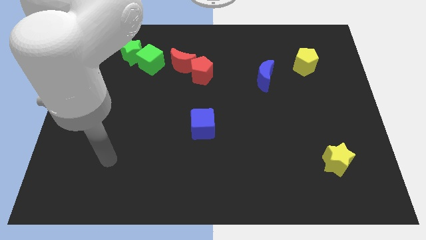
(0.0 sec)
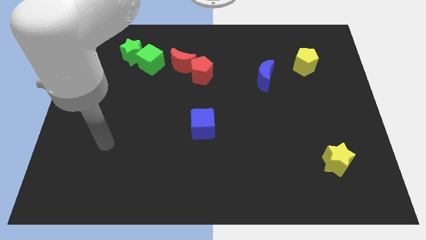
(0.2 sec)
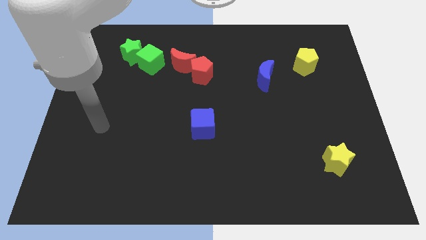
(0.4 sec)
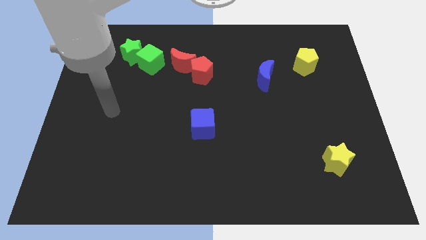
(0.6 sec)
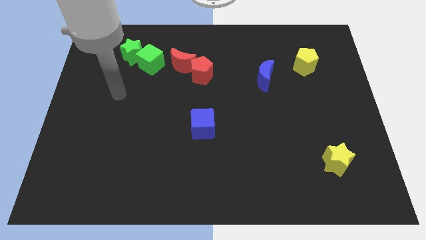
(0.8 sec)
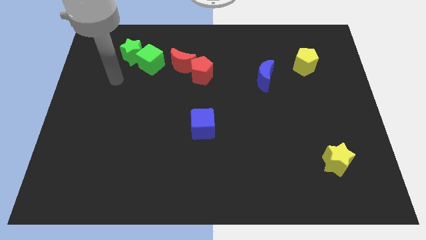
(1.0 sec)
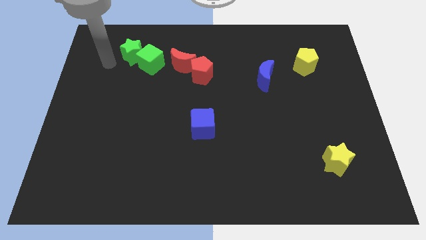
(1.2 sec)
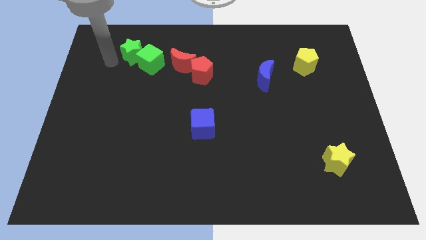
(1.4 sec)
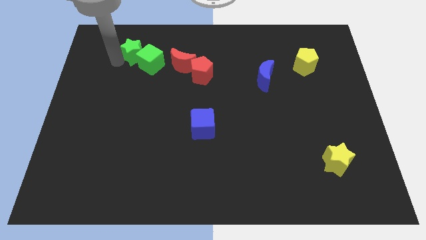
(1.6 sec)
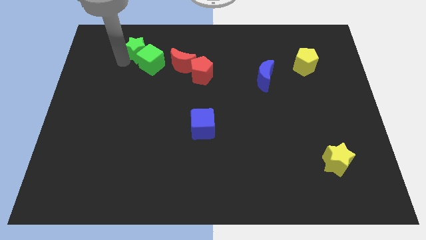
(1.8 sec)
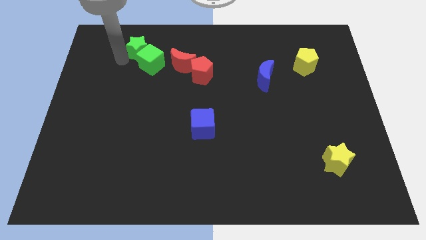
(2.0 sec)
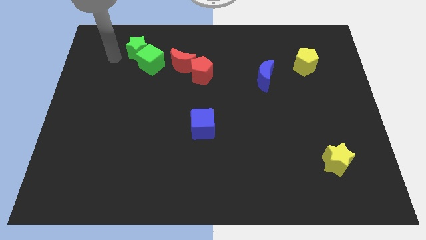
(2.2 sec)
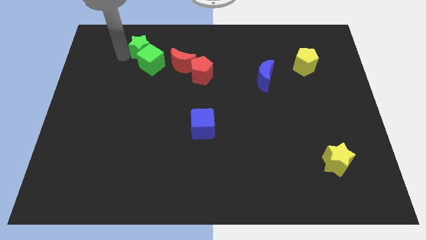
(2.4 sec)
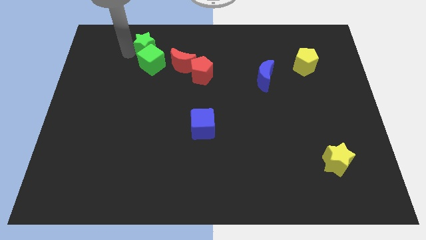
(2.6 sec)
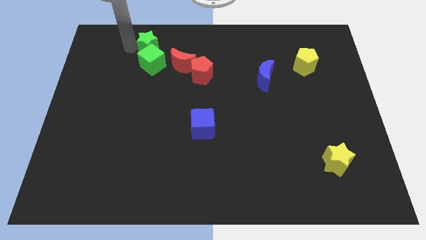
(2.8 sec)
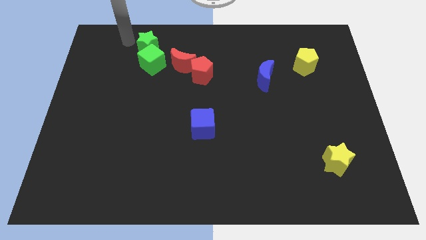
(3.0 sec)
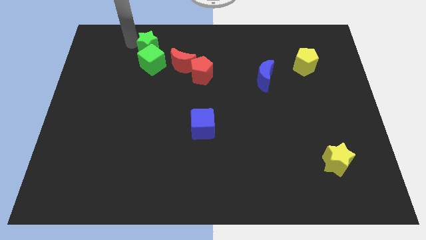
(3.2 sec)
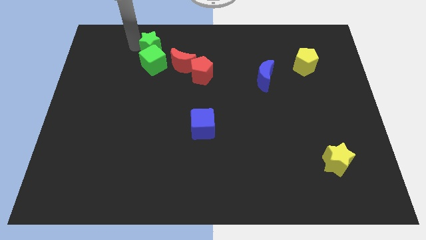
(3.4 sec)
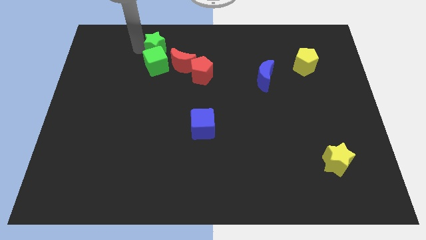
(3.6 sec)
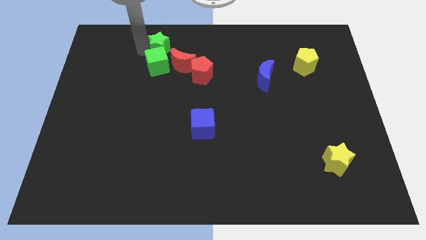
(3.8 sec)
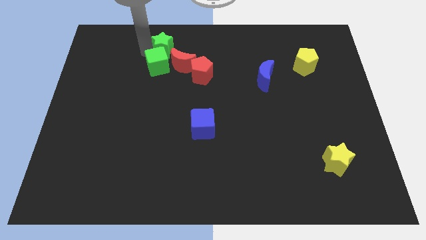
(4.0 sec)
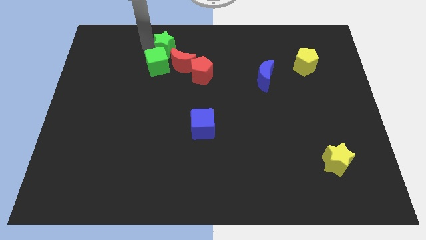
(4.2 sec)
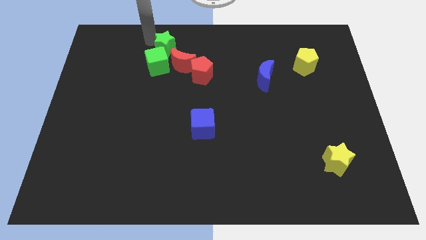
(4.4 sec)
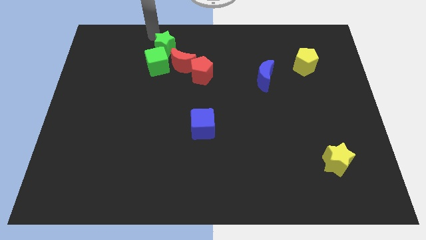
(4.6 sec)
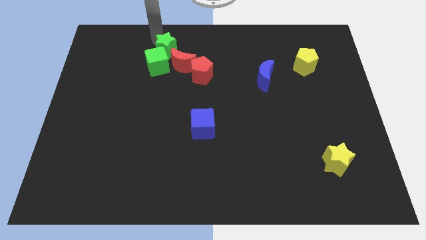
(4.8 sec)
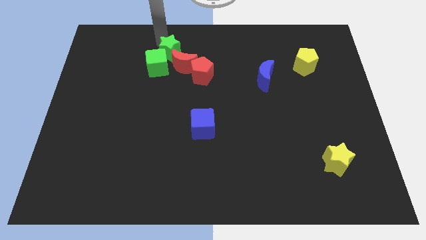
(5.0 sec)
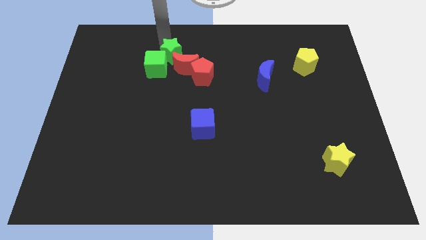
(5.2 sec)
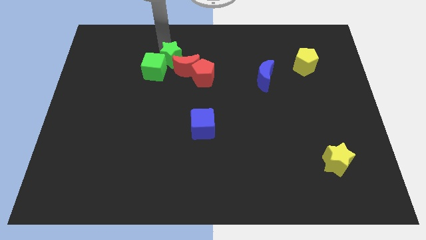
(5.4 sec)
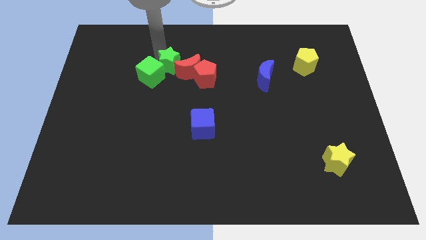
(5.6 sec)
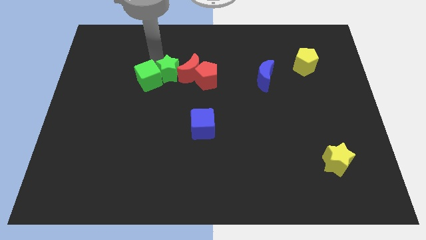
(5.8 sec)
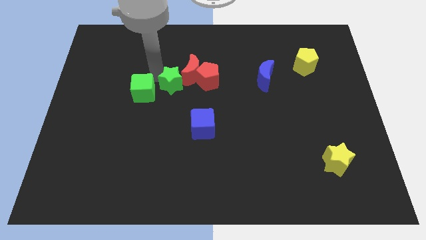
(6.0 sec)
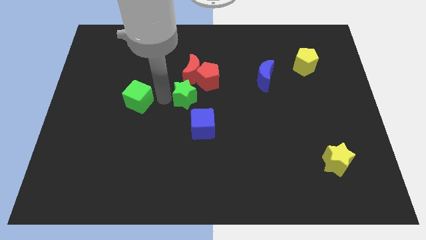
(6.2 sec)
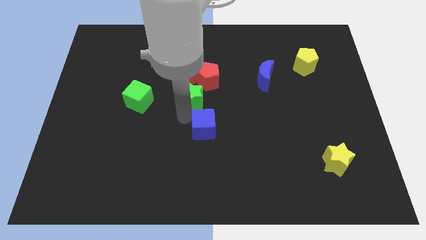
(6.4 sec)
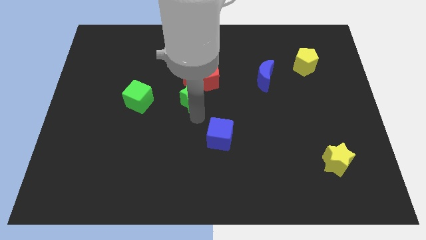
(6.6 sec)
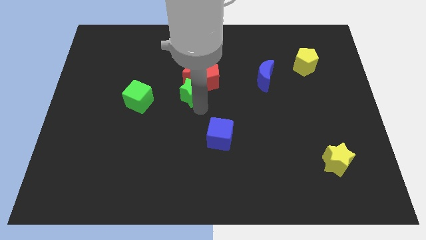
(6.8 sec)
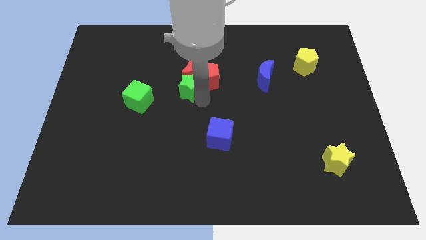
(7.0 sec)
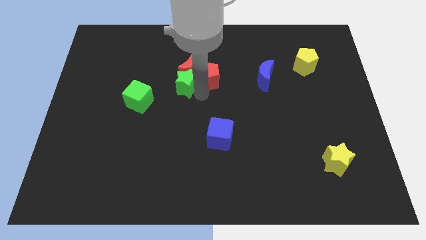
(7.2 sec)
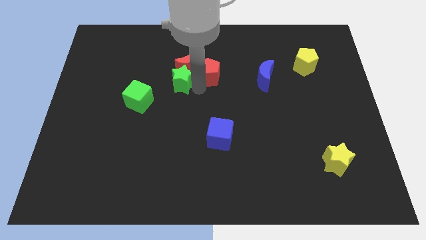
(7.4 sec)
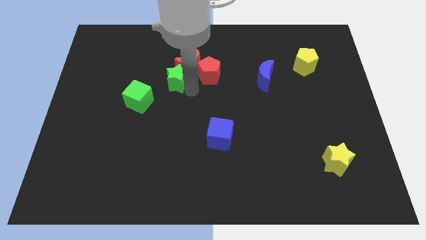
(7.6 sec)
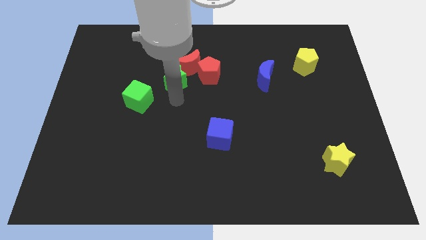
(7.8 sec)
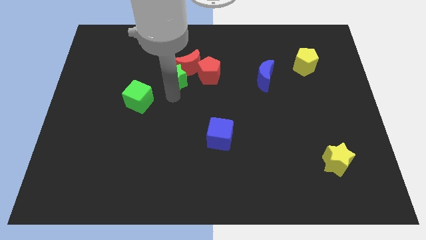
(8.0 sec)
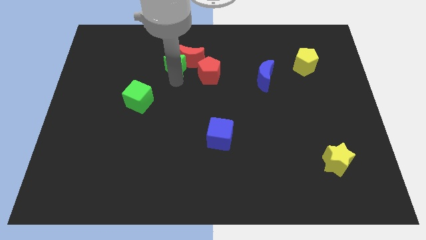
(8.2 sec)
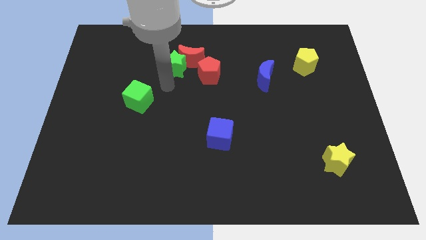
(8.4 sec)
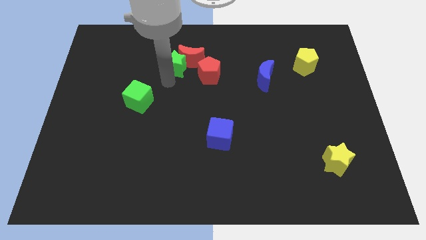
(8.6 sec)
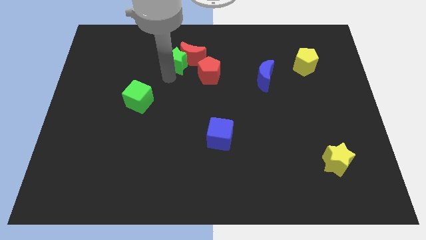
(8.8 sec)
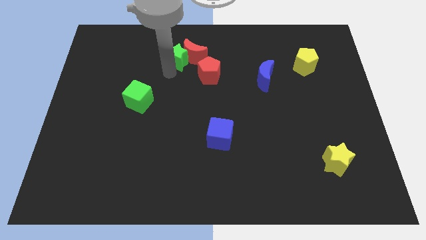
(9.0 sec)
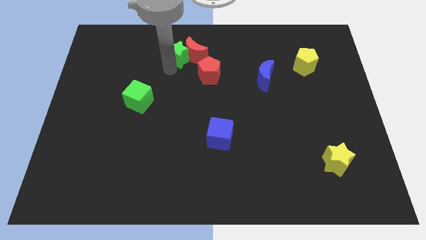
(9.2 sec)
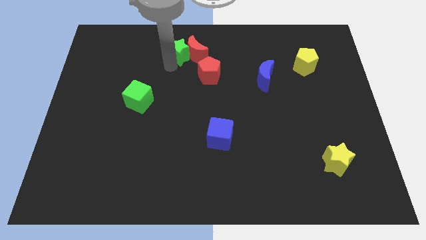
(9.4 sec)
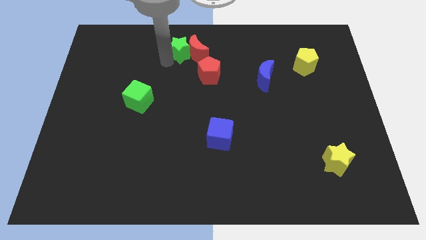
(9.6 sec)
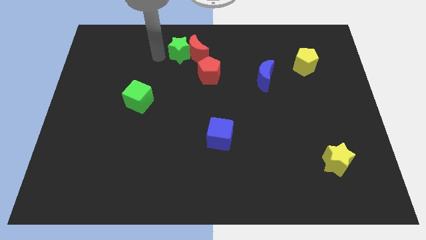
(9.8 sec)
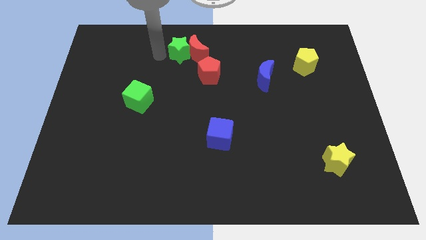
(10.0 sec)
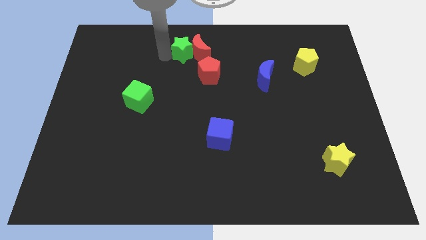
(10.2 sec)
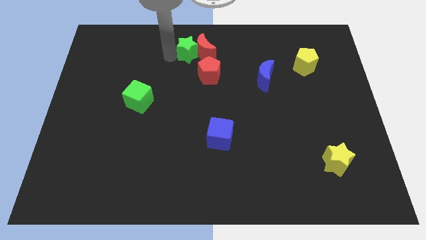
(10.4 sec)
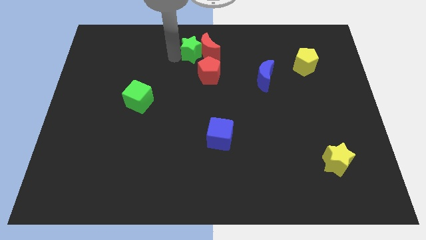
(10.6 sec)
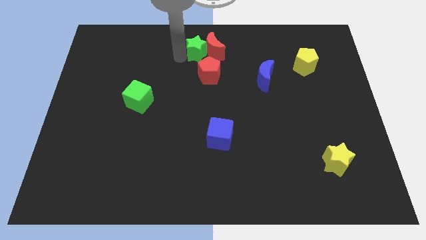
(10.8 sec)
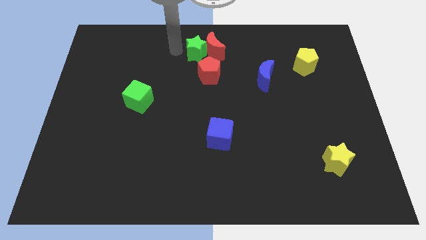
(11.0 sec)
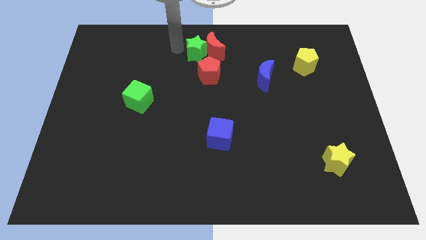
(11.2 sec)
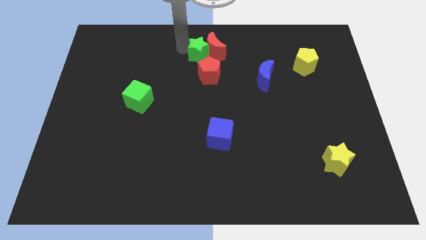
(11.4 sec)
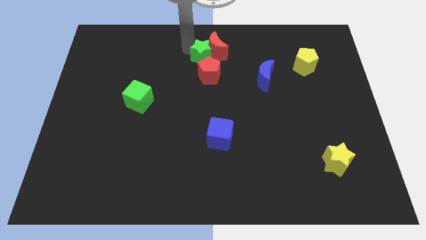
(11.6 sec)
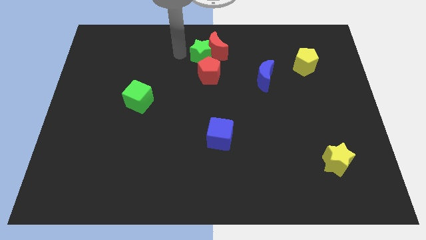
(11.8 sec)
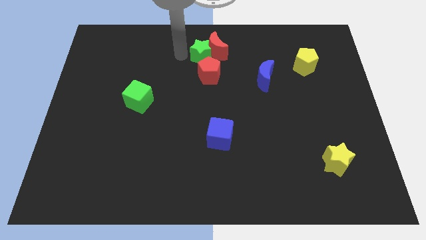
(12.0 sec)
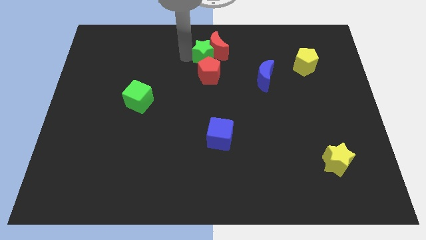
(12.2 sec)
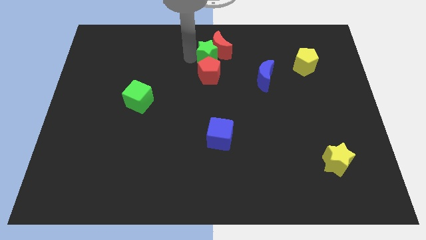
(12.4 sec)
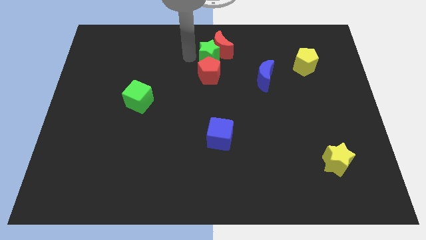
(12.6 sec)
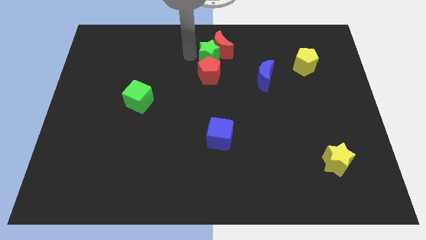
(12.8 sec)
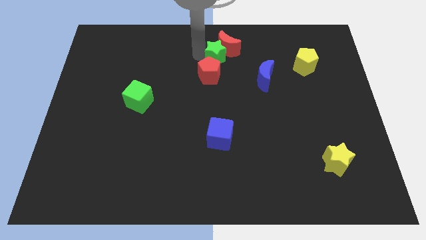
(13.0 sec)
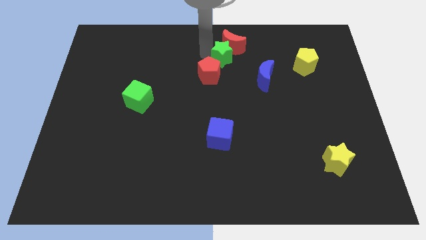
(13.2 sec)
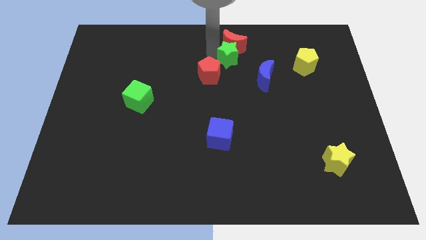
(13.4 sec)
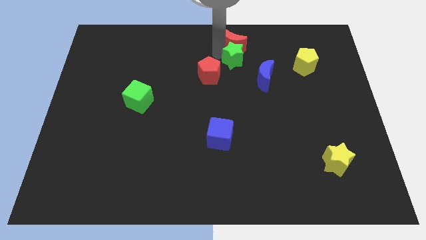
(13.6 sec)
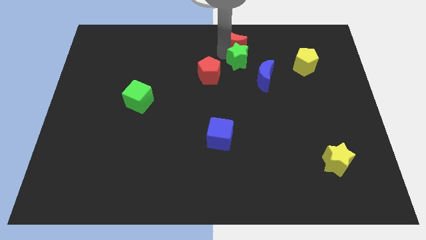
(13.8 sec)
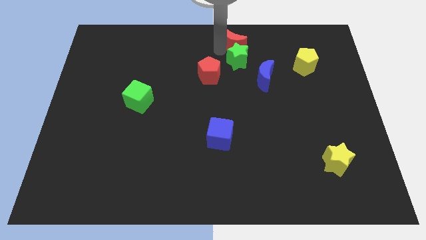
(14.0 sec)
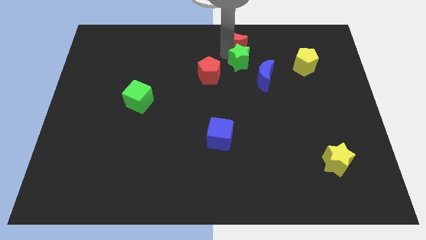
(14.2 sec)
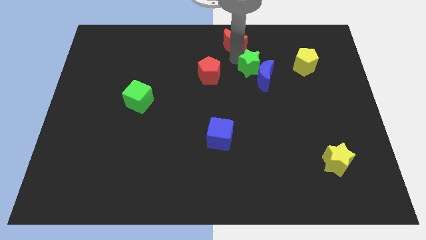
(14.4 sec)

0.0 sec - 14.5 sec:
move the green star next to the blue moon
